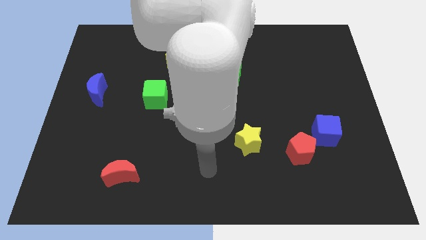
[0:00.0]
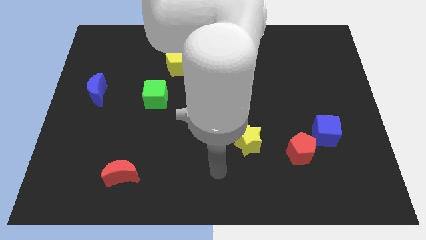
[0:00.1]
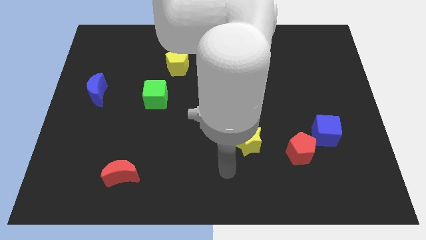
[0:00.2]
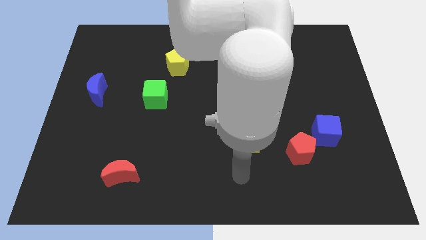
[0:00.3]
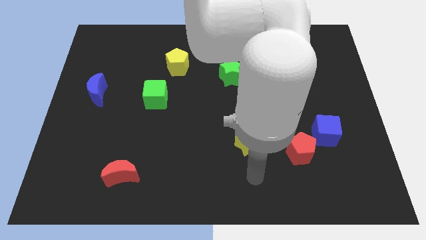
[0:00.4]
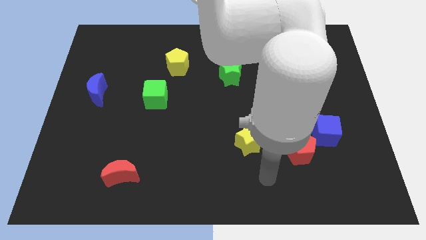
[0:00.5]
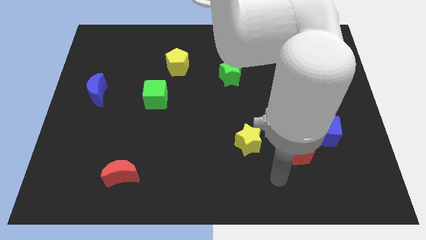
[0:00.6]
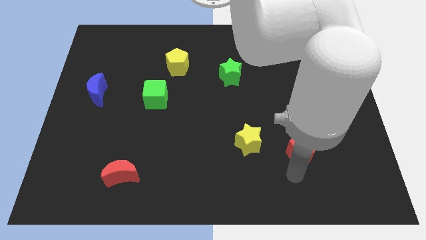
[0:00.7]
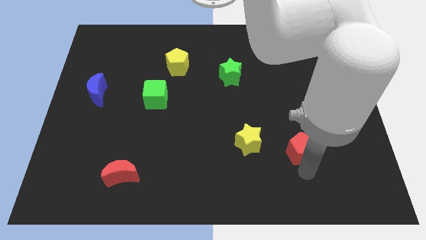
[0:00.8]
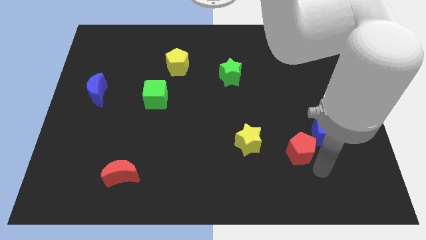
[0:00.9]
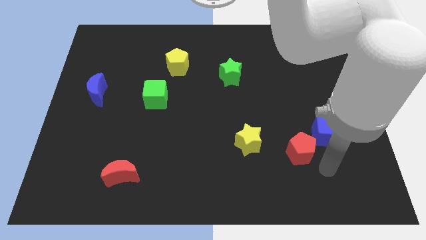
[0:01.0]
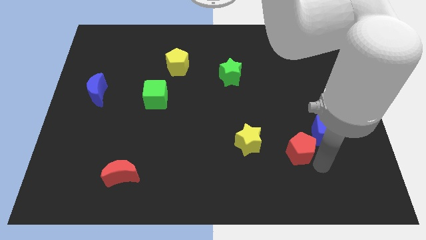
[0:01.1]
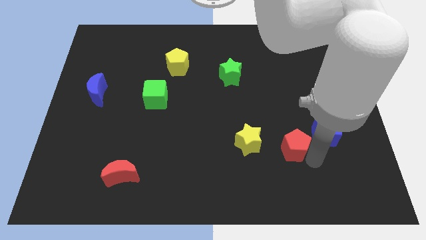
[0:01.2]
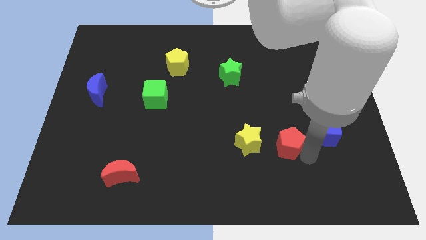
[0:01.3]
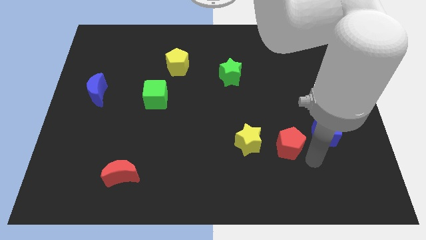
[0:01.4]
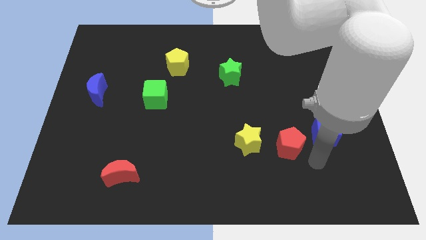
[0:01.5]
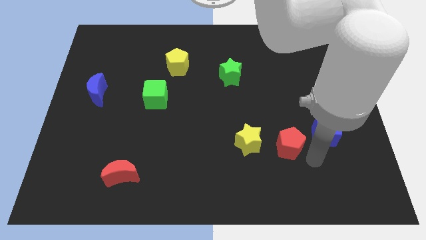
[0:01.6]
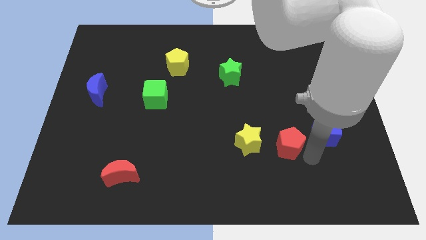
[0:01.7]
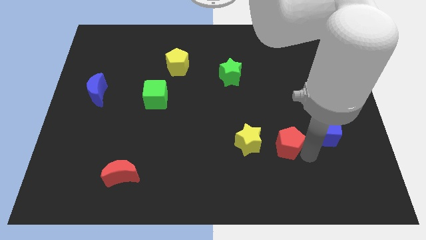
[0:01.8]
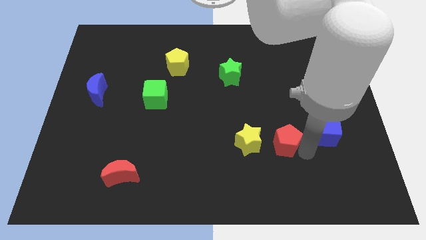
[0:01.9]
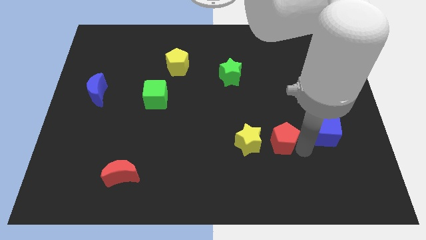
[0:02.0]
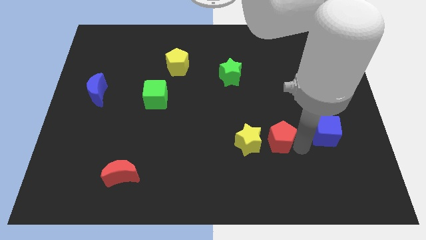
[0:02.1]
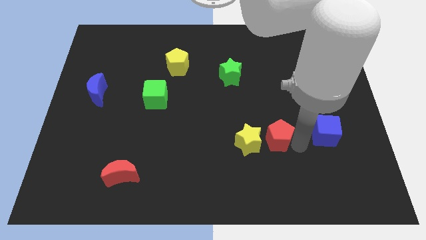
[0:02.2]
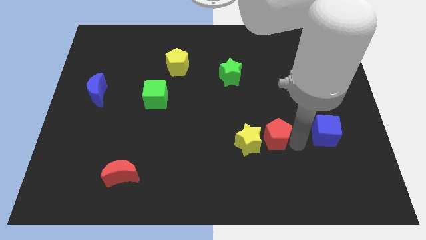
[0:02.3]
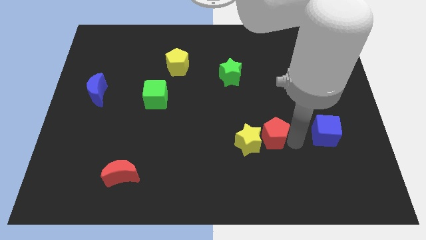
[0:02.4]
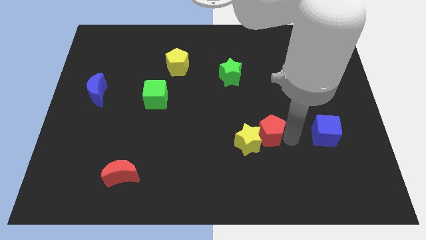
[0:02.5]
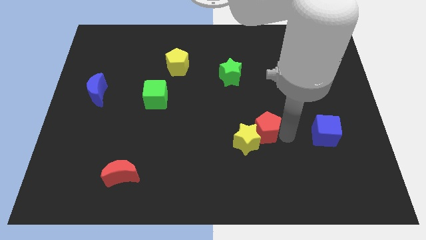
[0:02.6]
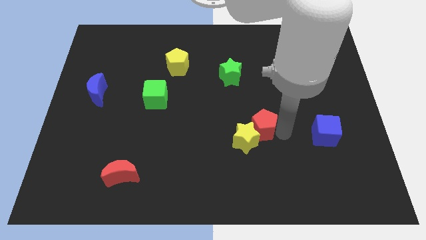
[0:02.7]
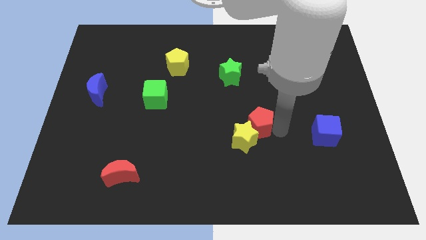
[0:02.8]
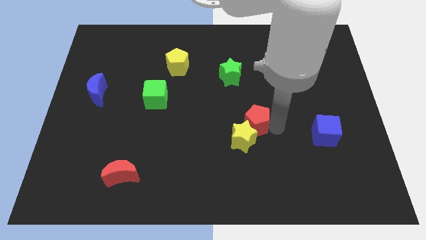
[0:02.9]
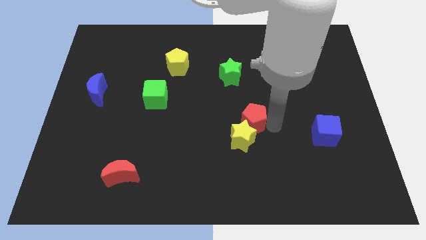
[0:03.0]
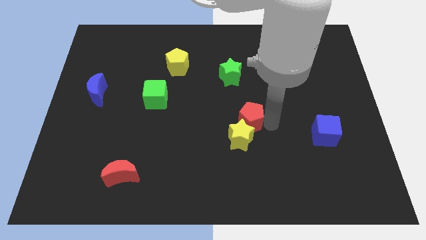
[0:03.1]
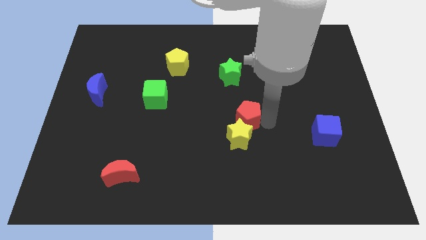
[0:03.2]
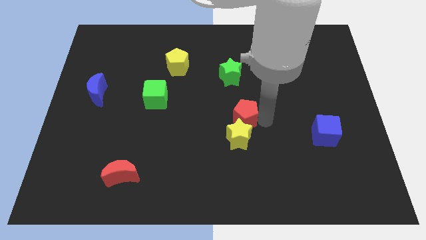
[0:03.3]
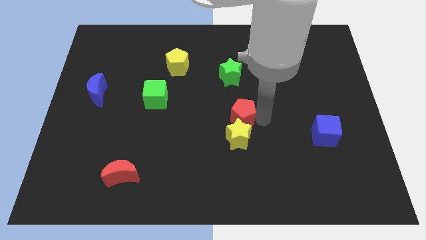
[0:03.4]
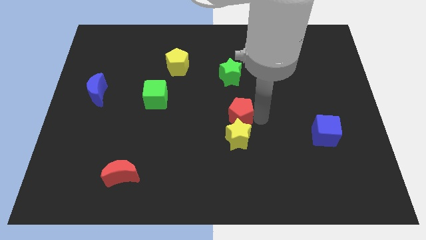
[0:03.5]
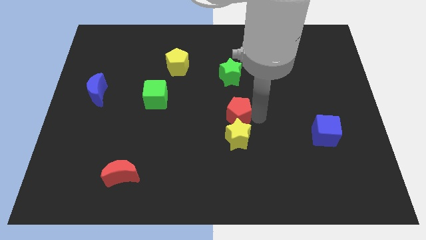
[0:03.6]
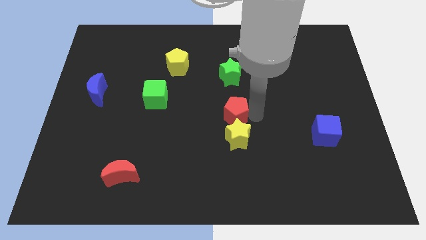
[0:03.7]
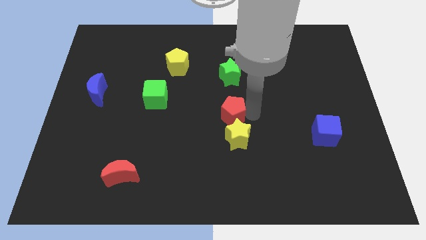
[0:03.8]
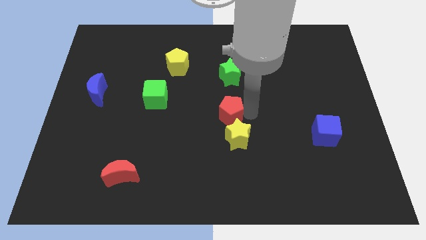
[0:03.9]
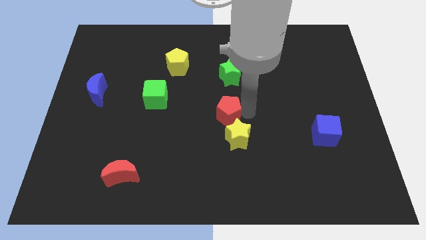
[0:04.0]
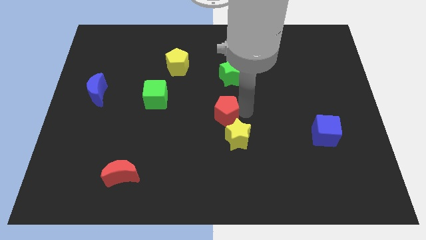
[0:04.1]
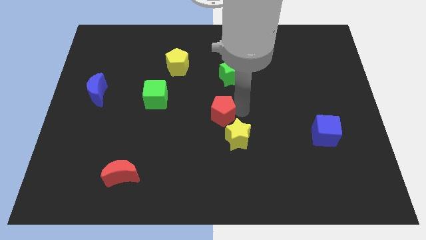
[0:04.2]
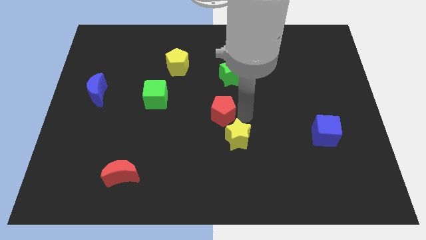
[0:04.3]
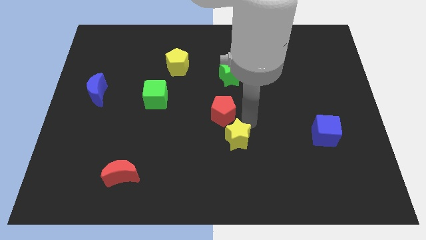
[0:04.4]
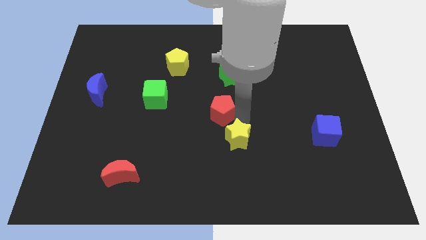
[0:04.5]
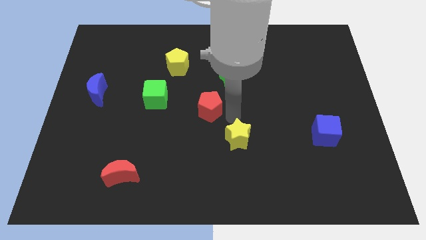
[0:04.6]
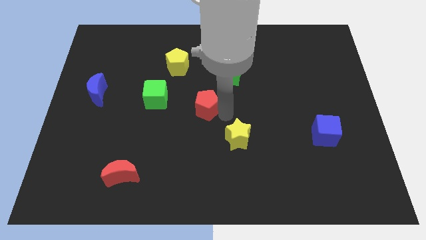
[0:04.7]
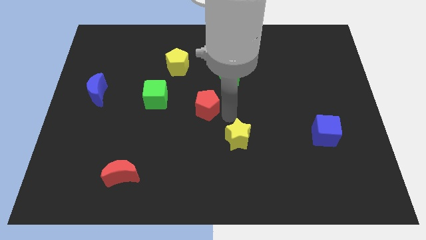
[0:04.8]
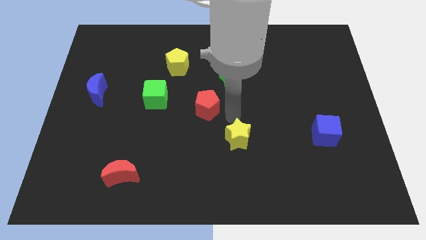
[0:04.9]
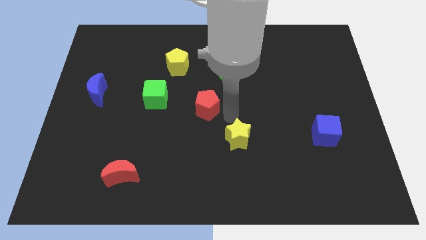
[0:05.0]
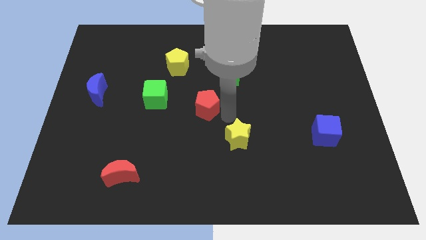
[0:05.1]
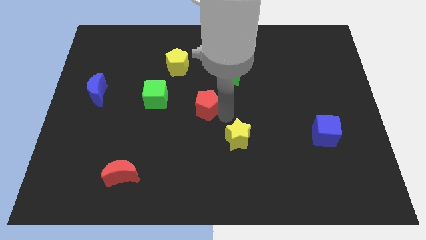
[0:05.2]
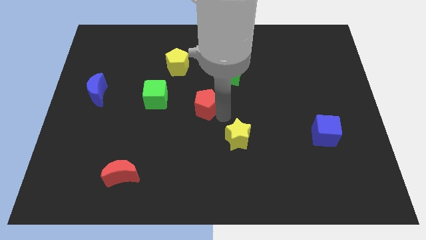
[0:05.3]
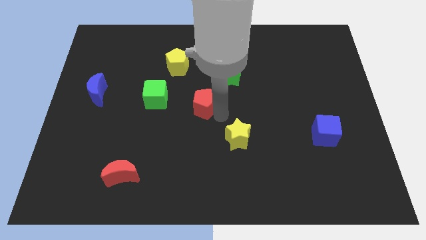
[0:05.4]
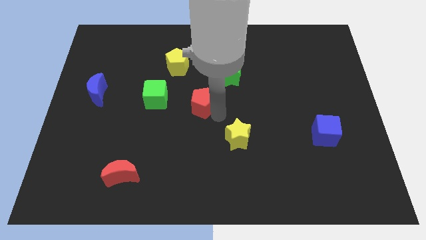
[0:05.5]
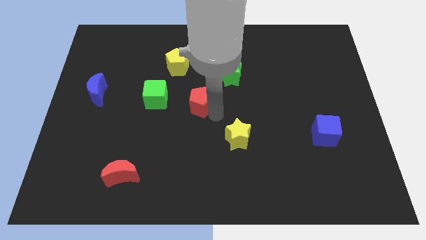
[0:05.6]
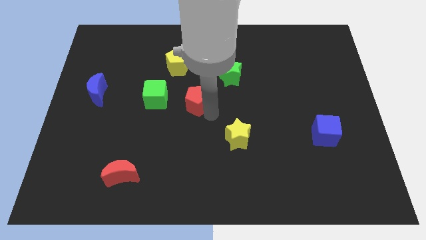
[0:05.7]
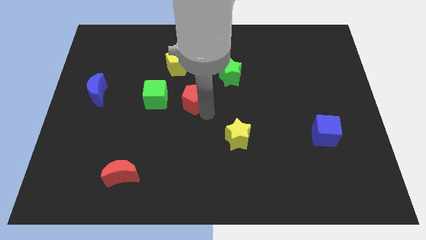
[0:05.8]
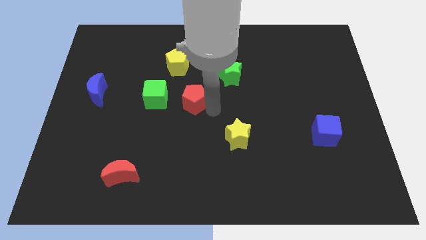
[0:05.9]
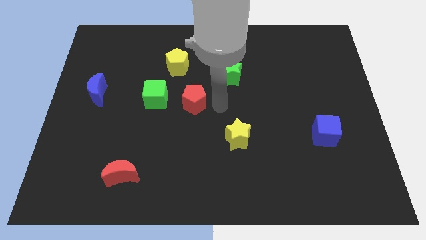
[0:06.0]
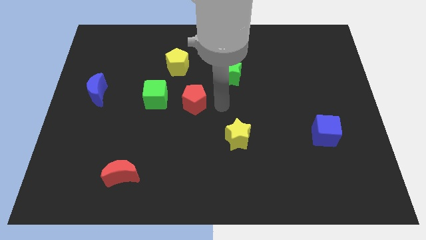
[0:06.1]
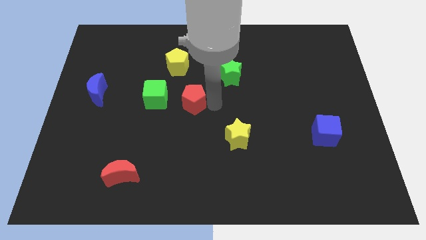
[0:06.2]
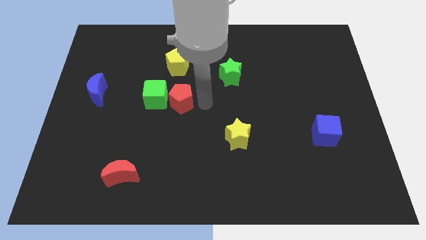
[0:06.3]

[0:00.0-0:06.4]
slide the red pentagon towards the green cube
